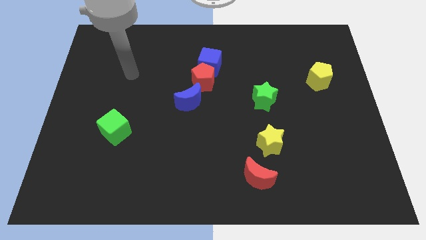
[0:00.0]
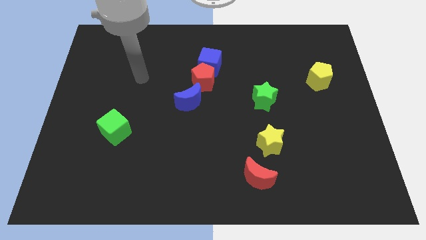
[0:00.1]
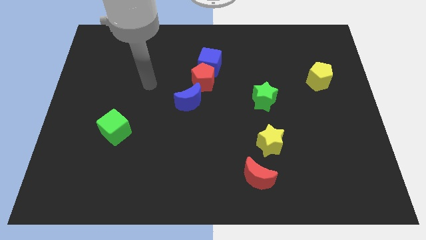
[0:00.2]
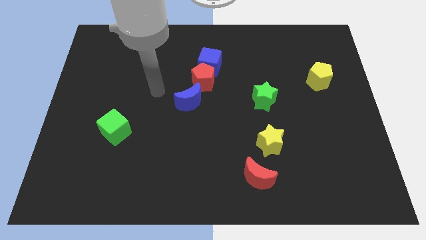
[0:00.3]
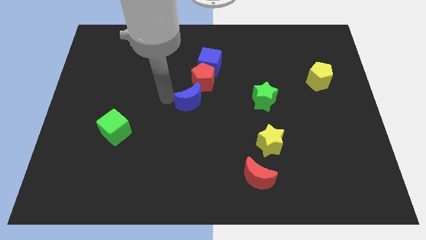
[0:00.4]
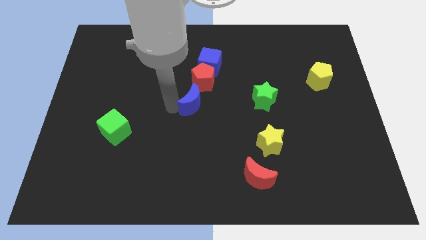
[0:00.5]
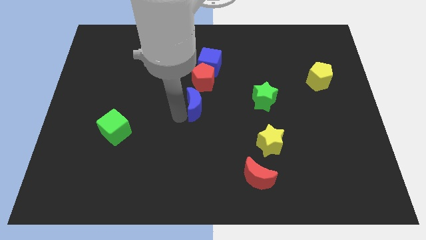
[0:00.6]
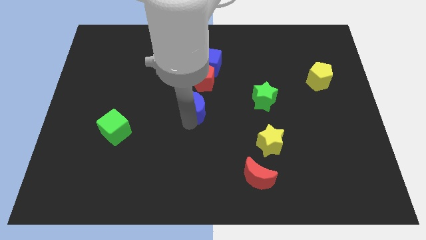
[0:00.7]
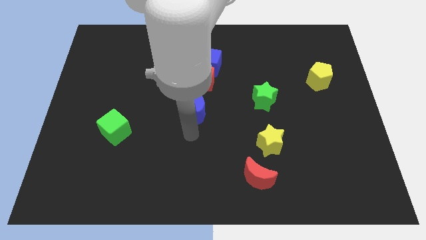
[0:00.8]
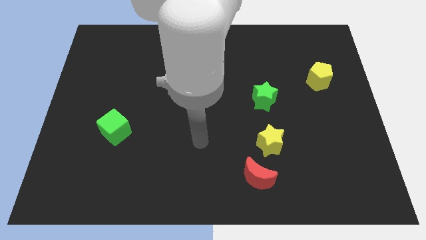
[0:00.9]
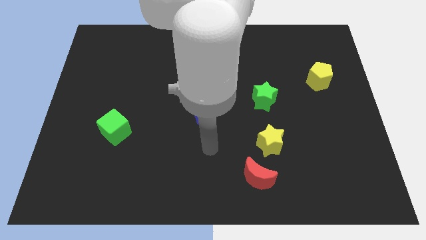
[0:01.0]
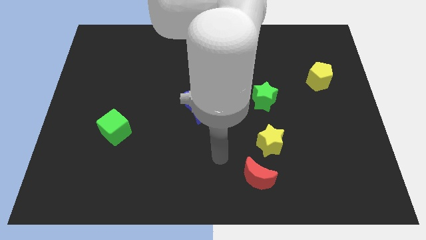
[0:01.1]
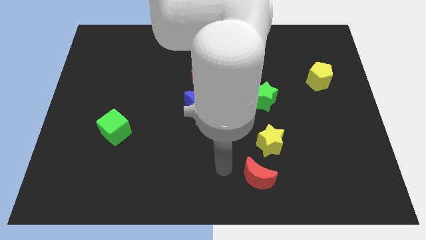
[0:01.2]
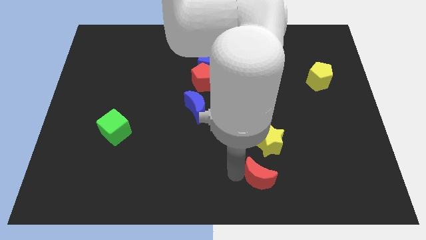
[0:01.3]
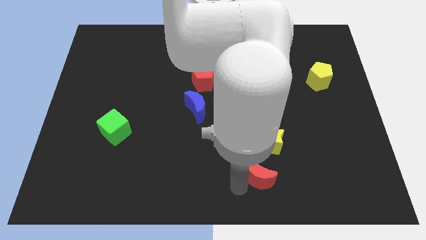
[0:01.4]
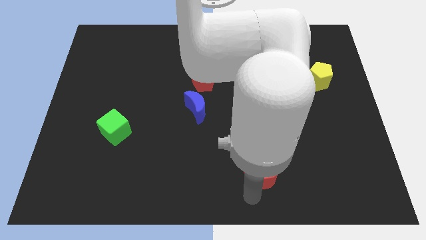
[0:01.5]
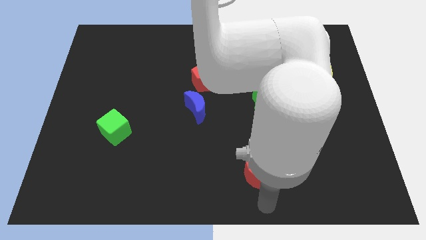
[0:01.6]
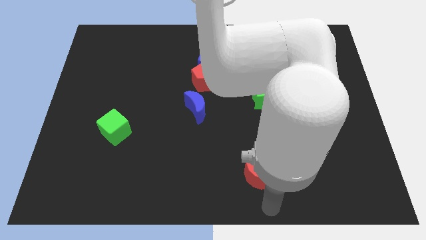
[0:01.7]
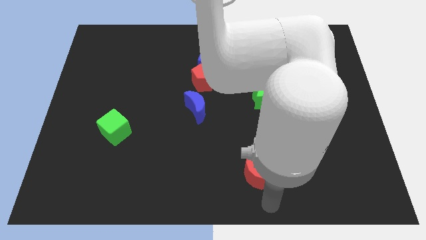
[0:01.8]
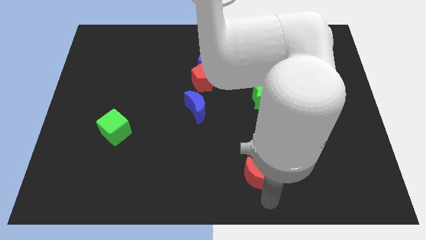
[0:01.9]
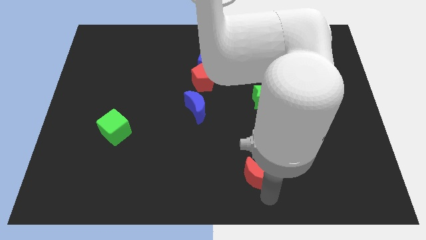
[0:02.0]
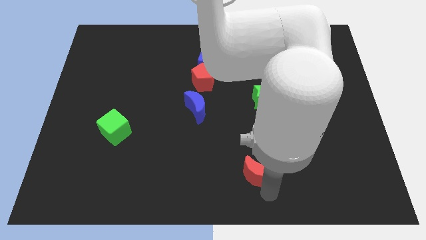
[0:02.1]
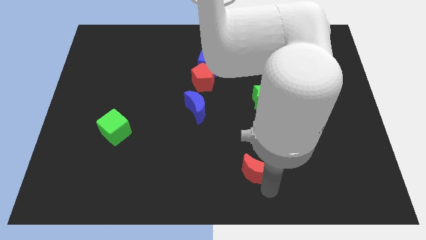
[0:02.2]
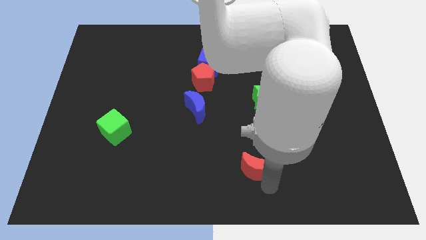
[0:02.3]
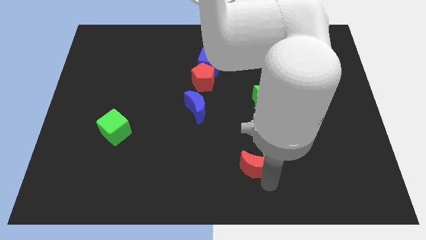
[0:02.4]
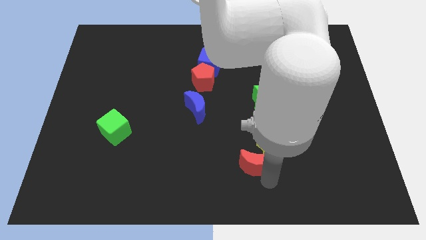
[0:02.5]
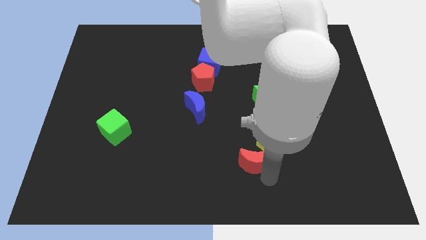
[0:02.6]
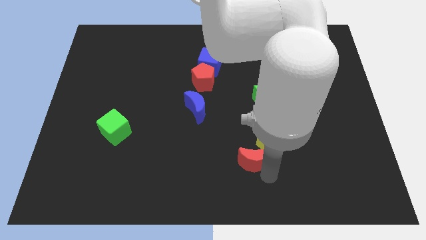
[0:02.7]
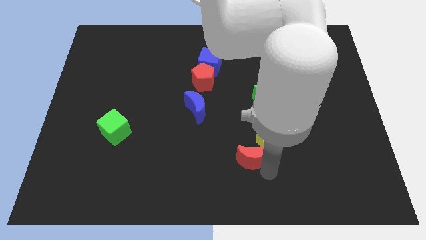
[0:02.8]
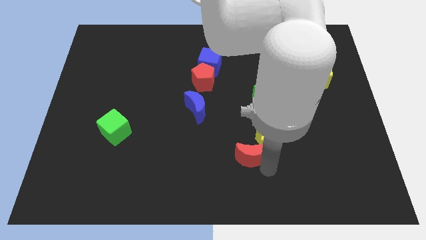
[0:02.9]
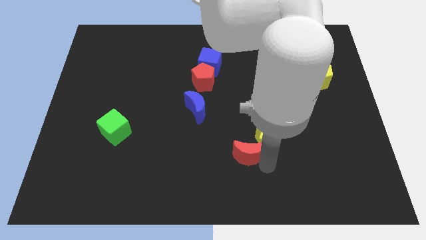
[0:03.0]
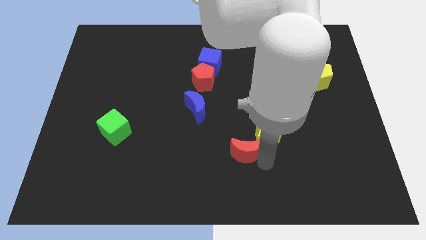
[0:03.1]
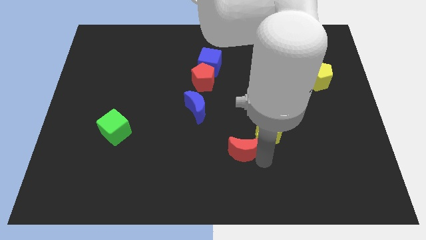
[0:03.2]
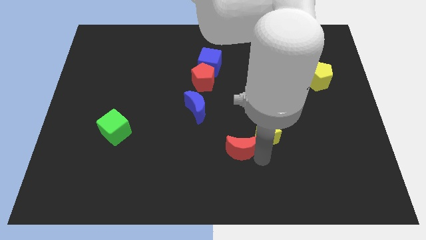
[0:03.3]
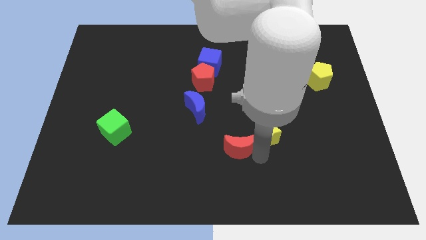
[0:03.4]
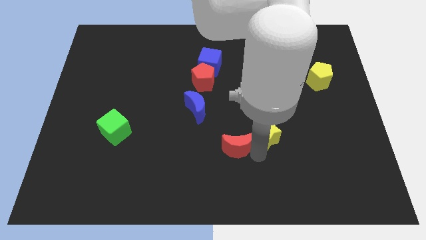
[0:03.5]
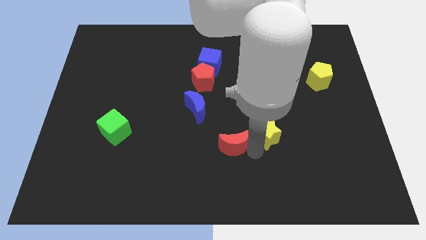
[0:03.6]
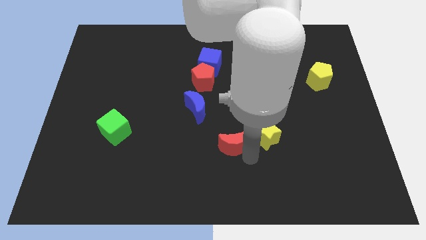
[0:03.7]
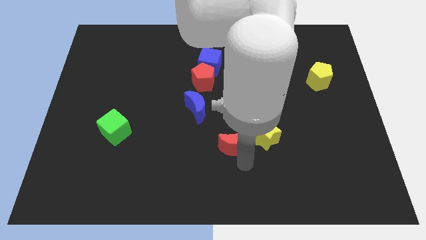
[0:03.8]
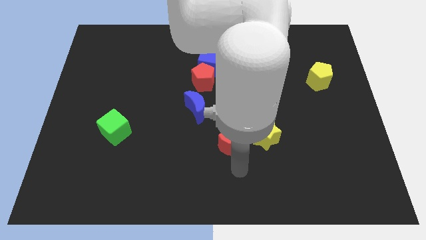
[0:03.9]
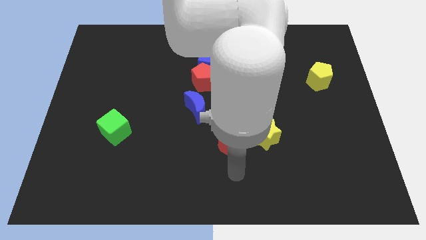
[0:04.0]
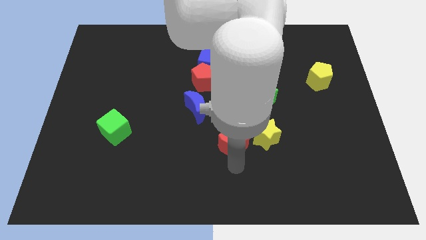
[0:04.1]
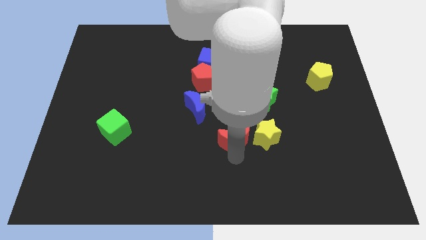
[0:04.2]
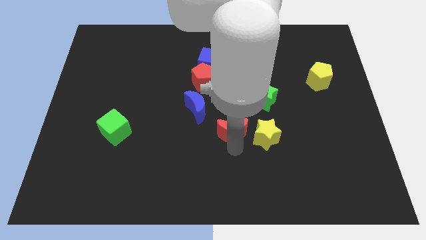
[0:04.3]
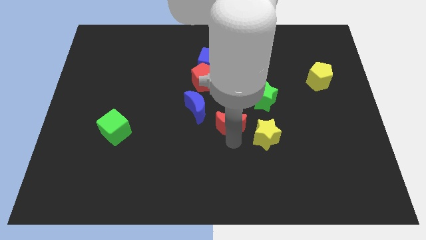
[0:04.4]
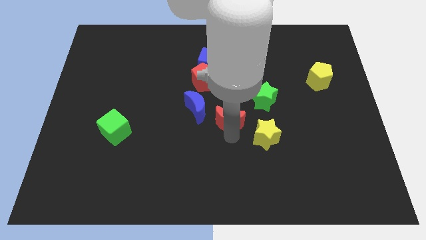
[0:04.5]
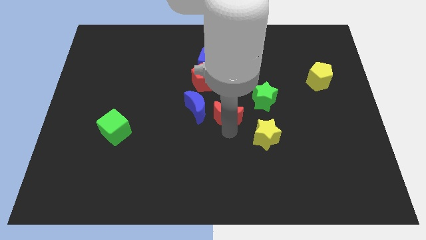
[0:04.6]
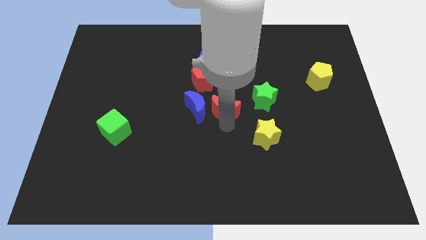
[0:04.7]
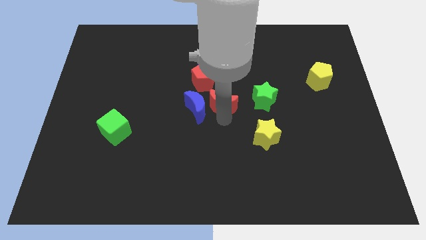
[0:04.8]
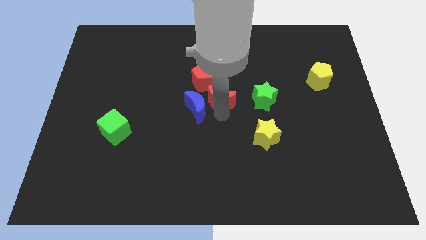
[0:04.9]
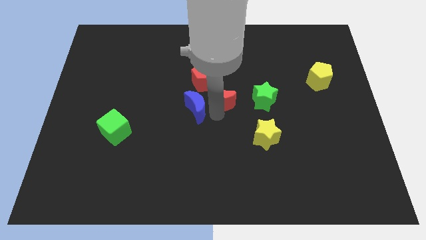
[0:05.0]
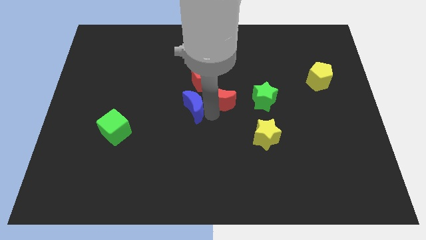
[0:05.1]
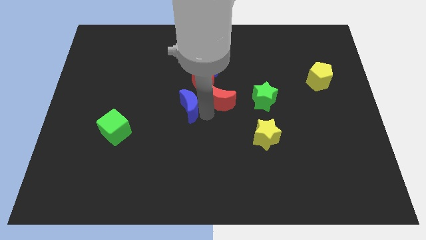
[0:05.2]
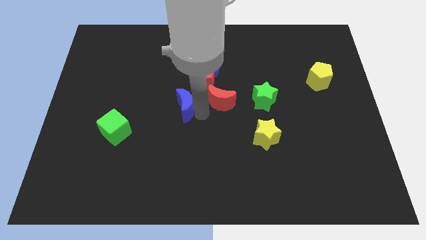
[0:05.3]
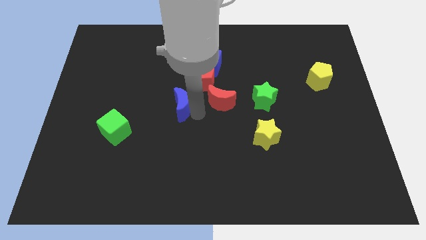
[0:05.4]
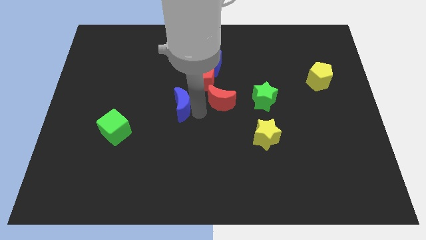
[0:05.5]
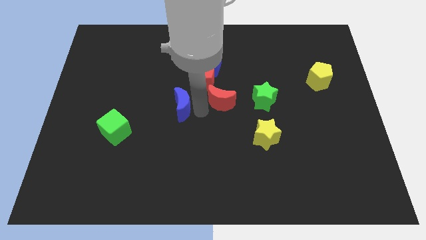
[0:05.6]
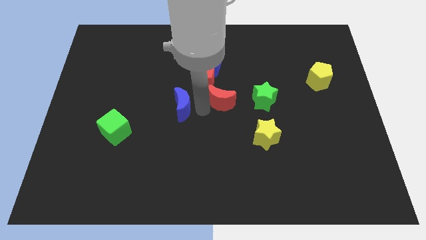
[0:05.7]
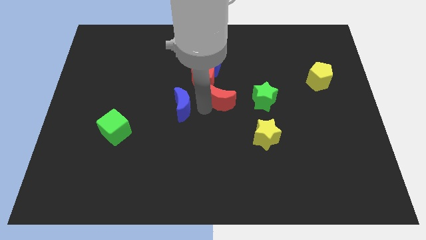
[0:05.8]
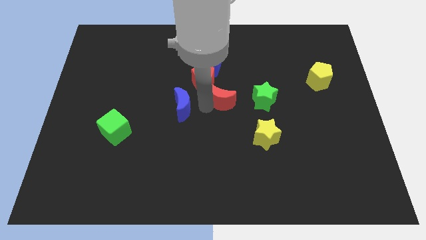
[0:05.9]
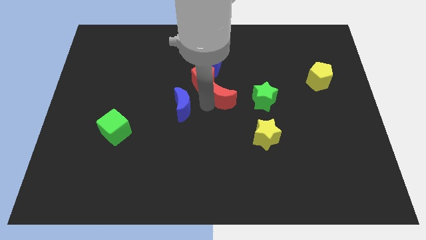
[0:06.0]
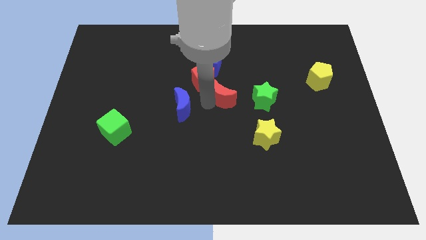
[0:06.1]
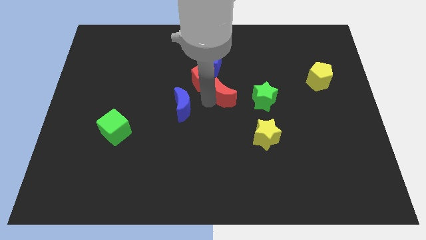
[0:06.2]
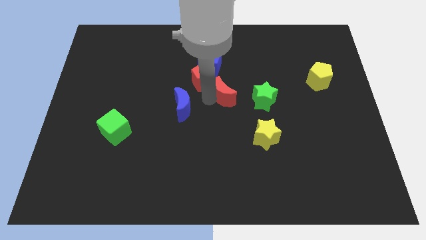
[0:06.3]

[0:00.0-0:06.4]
slide the red moon up

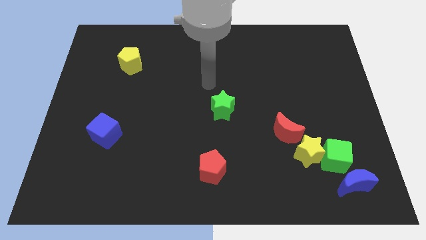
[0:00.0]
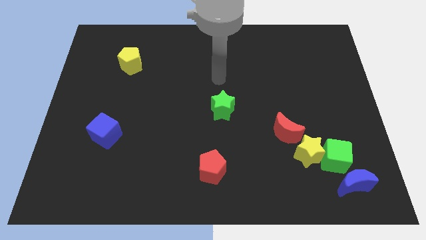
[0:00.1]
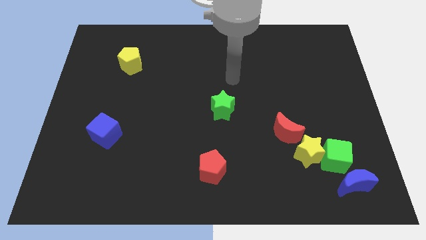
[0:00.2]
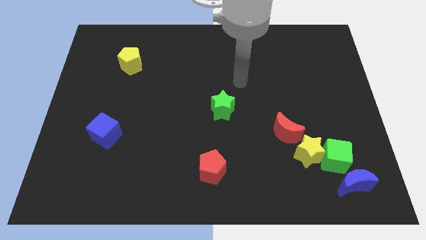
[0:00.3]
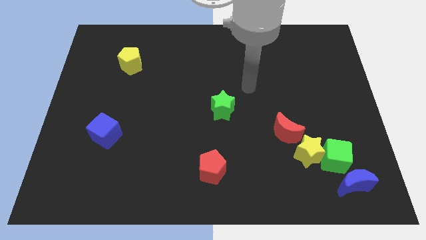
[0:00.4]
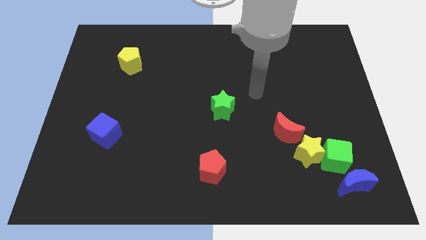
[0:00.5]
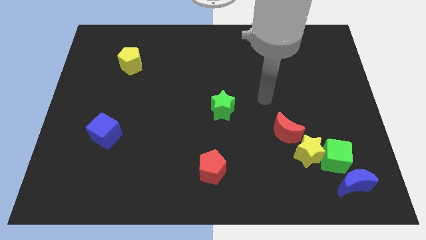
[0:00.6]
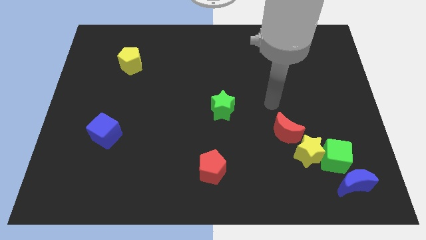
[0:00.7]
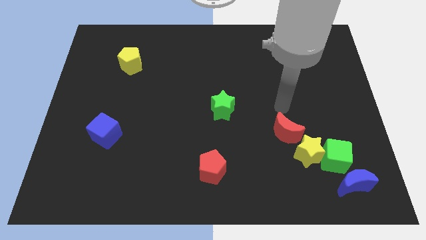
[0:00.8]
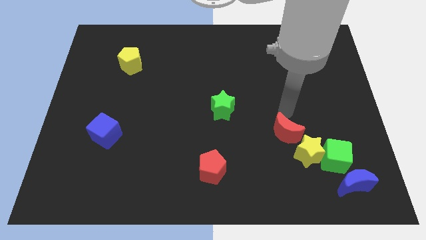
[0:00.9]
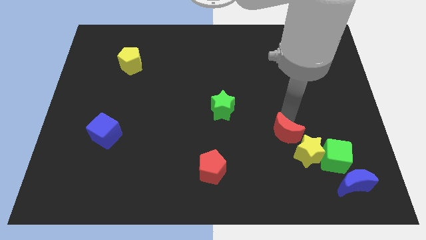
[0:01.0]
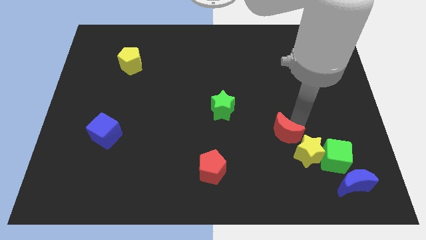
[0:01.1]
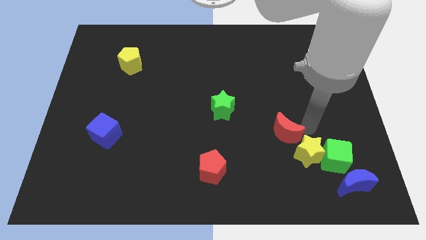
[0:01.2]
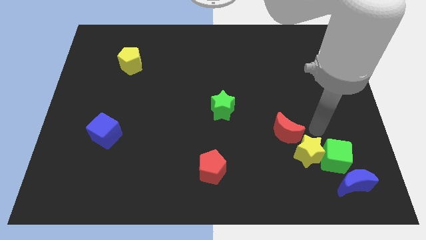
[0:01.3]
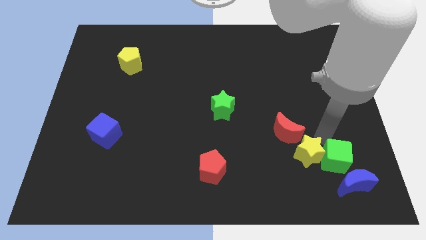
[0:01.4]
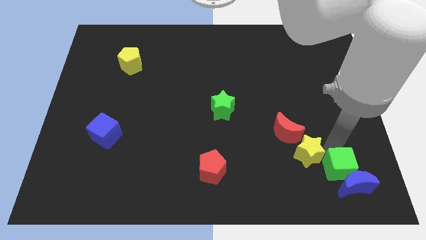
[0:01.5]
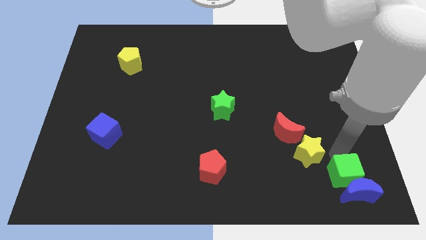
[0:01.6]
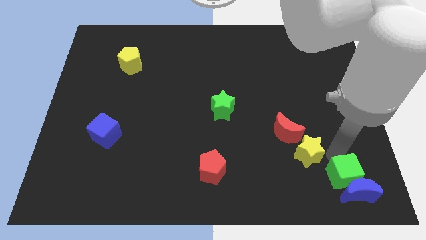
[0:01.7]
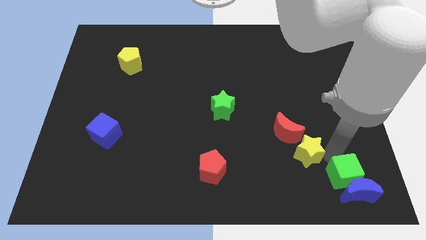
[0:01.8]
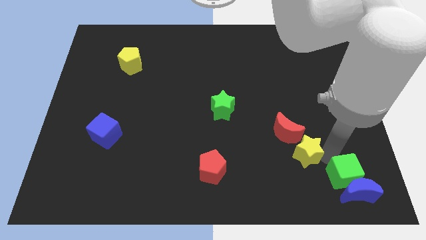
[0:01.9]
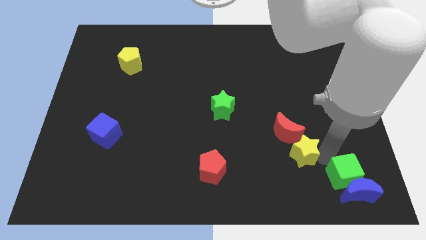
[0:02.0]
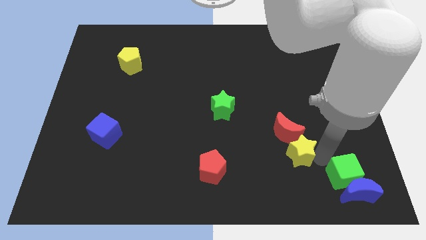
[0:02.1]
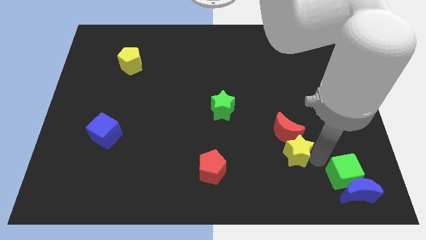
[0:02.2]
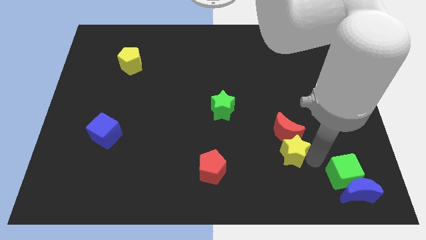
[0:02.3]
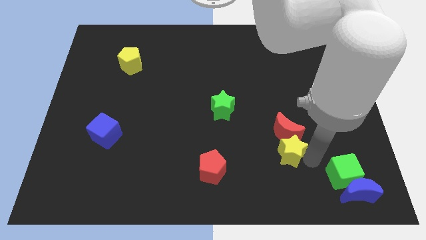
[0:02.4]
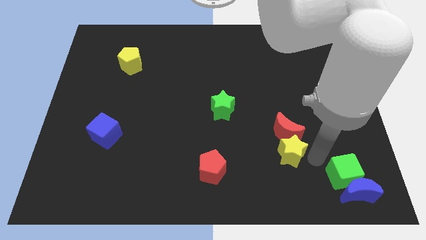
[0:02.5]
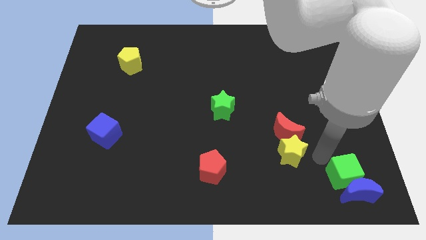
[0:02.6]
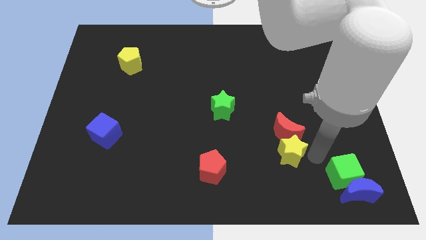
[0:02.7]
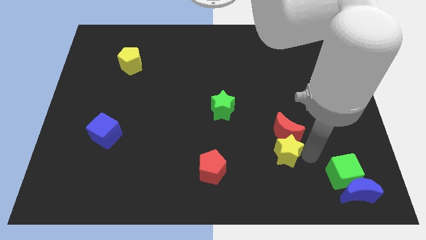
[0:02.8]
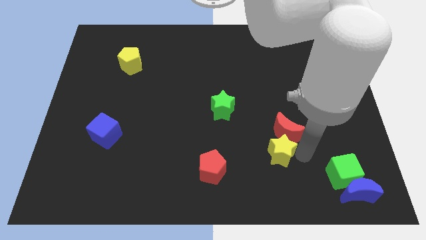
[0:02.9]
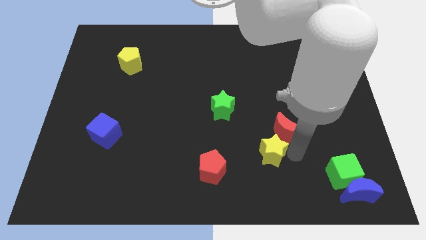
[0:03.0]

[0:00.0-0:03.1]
slide the yellow star slightly left
